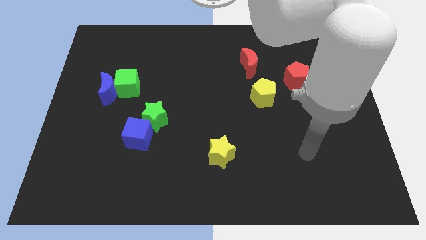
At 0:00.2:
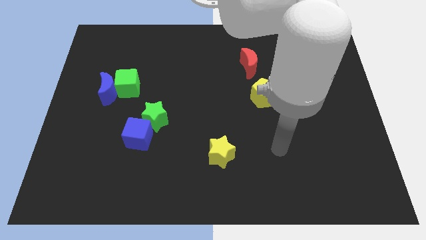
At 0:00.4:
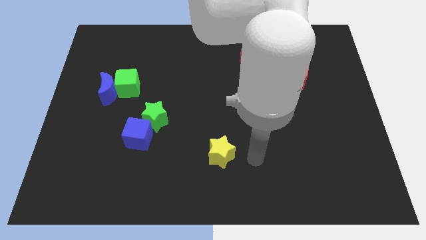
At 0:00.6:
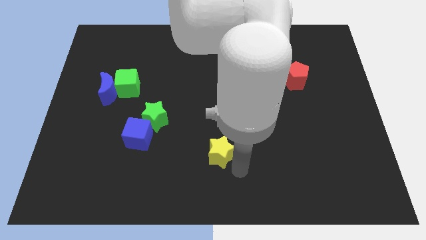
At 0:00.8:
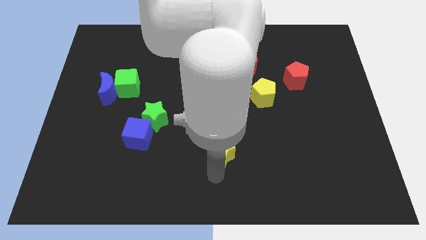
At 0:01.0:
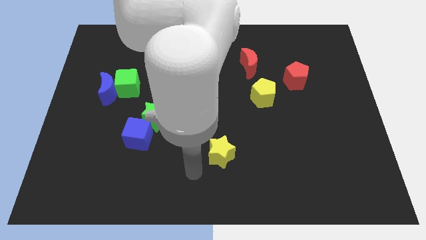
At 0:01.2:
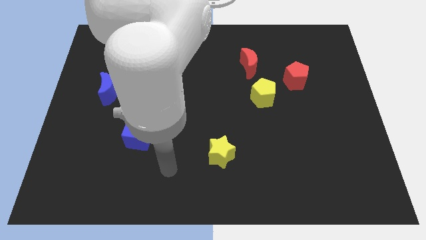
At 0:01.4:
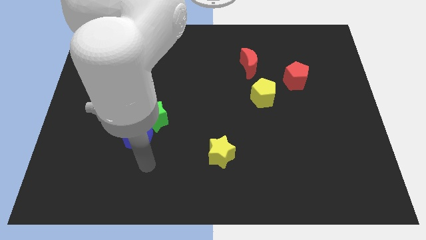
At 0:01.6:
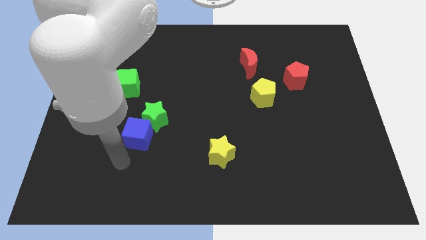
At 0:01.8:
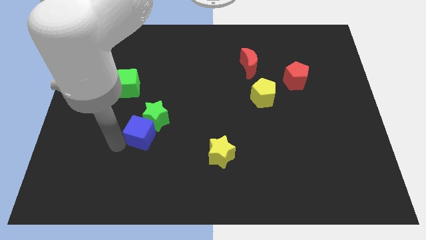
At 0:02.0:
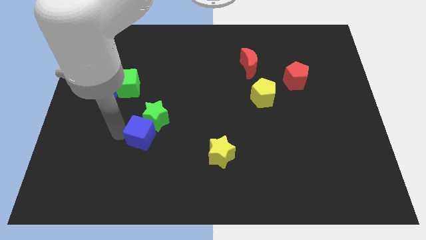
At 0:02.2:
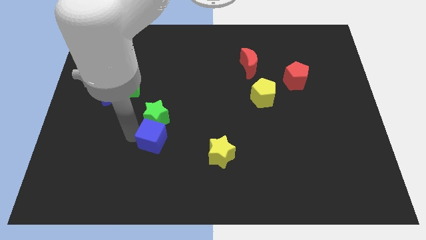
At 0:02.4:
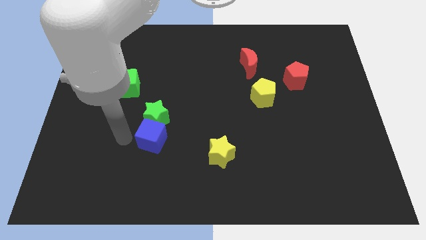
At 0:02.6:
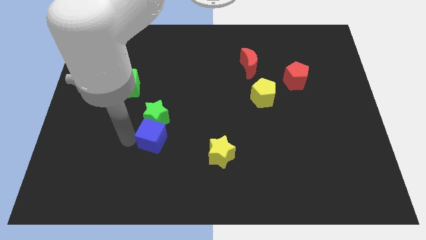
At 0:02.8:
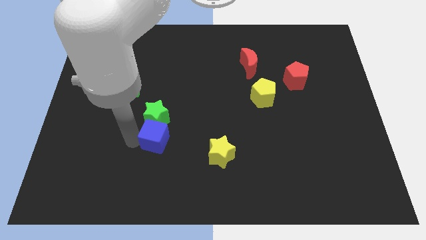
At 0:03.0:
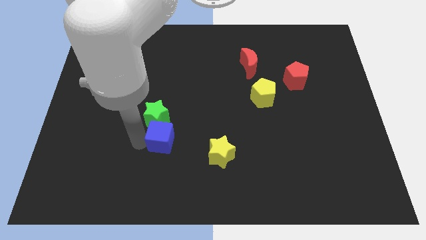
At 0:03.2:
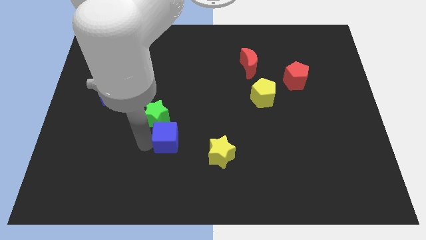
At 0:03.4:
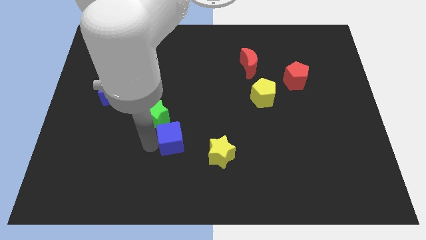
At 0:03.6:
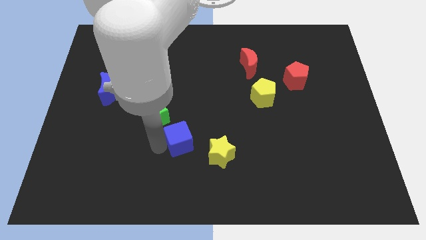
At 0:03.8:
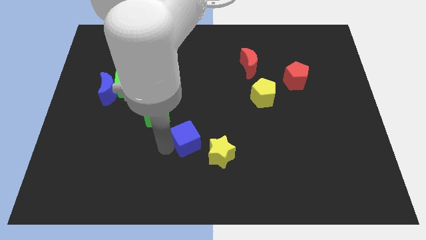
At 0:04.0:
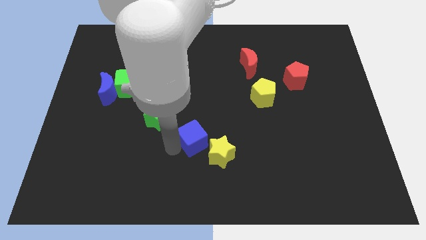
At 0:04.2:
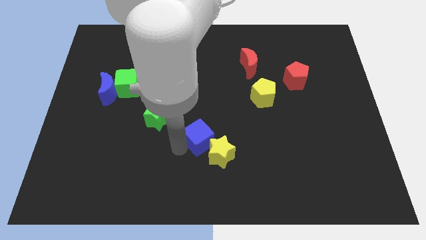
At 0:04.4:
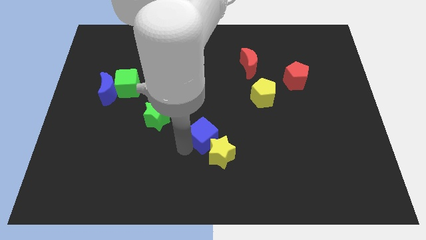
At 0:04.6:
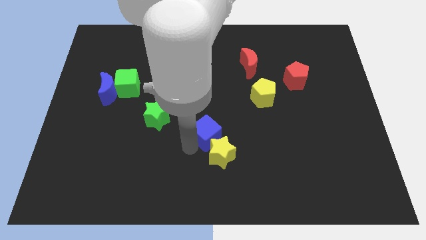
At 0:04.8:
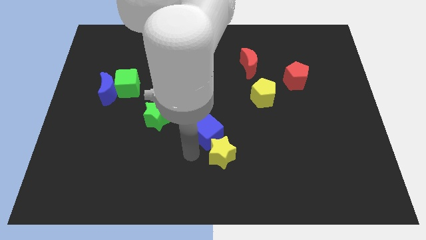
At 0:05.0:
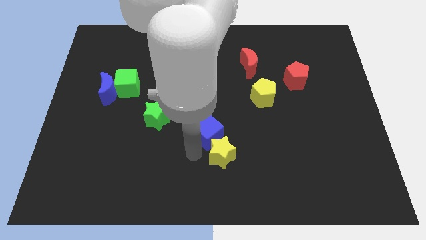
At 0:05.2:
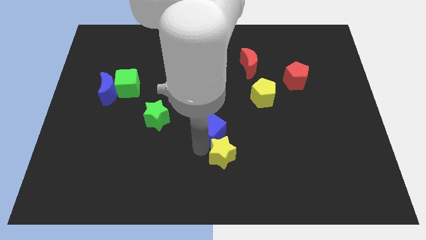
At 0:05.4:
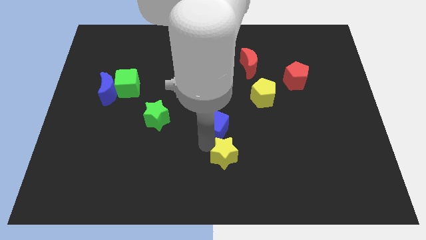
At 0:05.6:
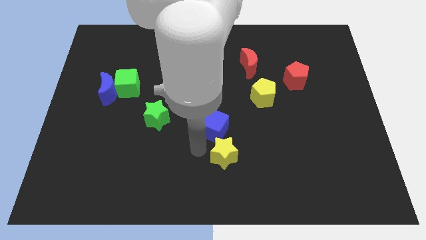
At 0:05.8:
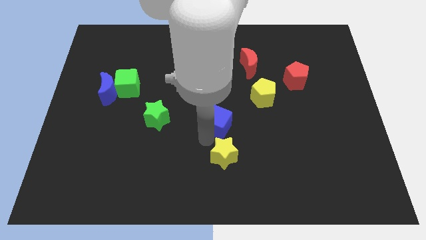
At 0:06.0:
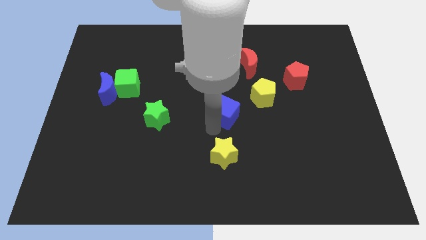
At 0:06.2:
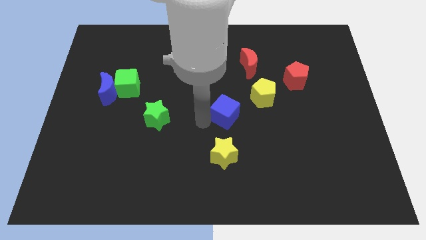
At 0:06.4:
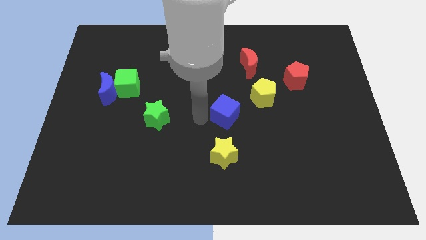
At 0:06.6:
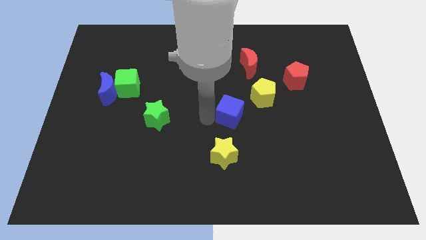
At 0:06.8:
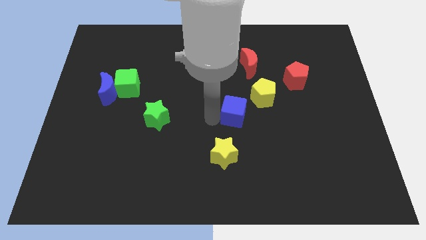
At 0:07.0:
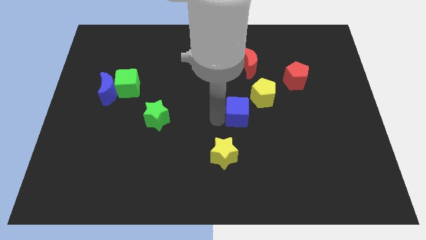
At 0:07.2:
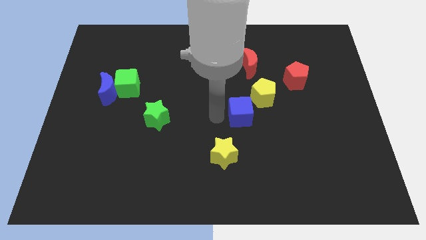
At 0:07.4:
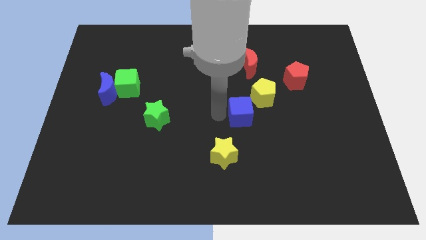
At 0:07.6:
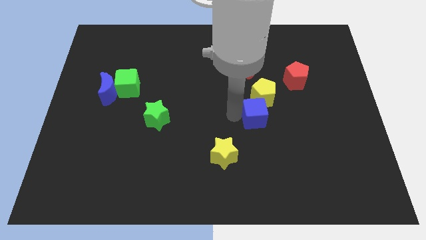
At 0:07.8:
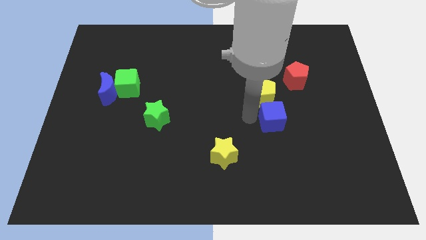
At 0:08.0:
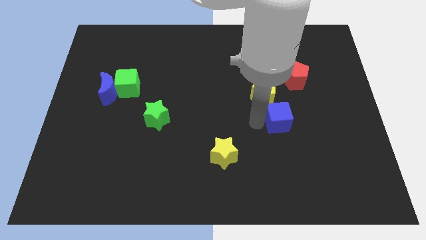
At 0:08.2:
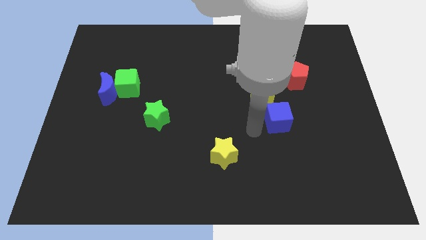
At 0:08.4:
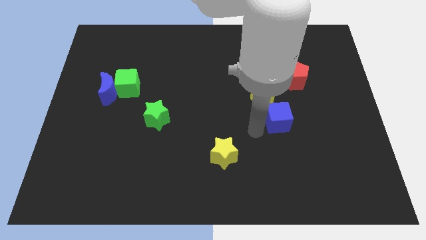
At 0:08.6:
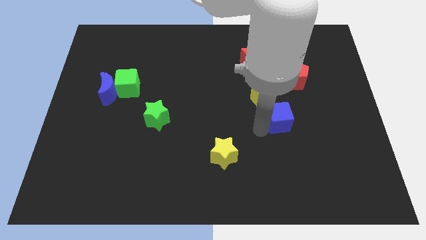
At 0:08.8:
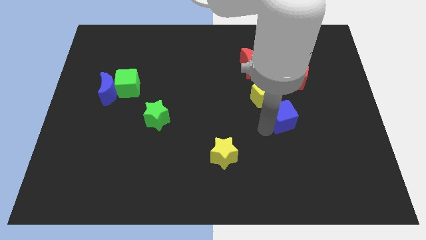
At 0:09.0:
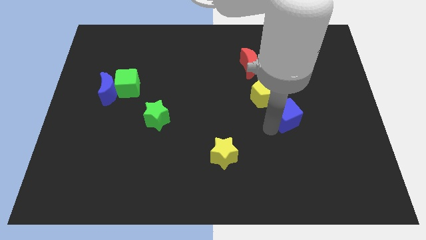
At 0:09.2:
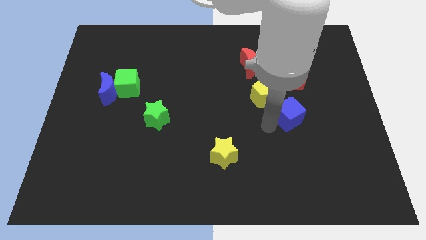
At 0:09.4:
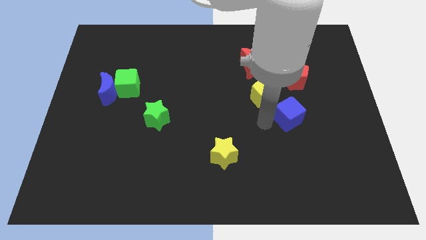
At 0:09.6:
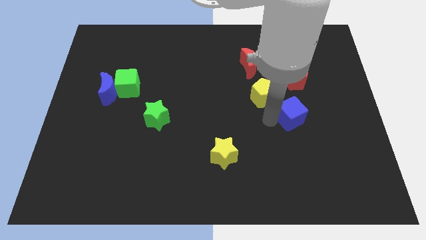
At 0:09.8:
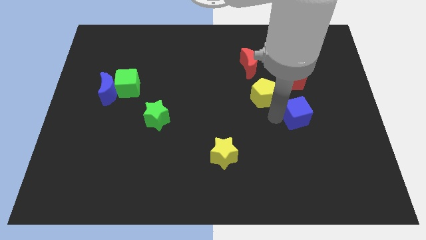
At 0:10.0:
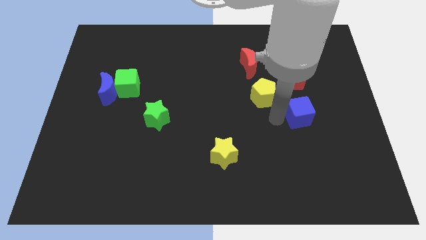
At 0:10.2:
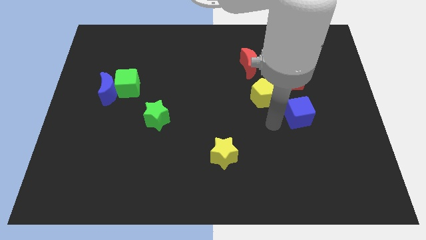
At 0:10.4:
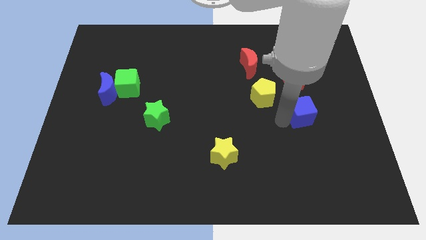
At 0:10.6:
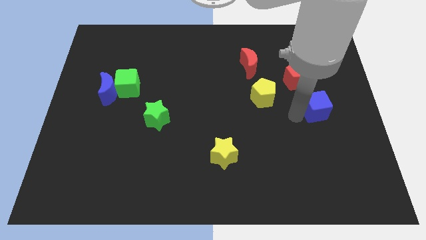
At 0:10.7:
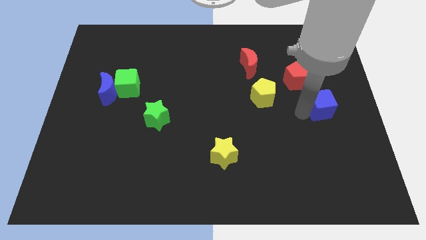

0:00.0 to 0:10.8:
push the blue cube to the center right

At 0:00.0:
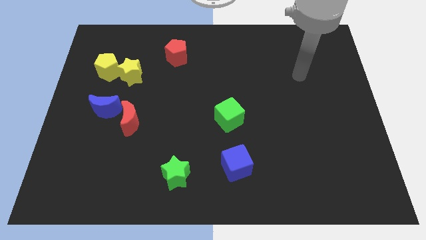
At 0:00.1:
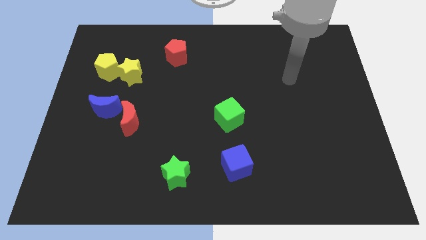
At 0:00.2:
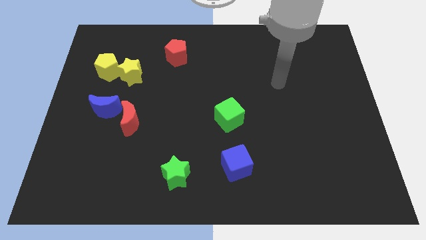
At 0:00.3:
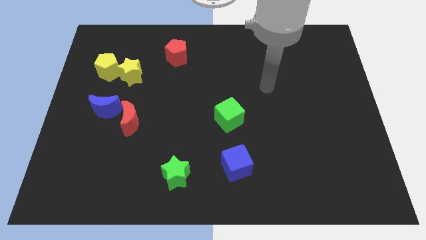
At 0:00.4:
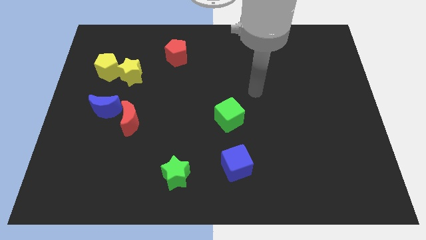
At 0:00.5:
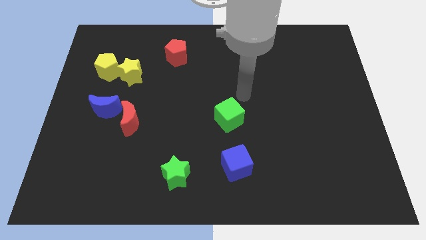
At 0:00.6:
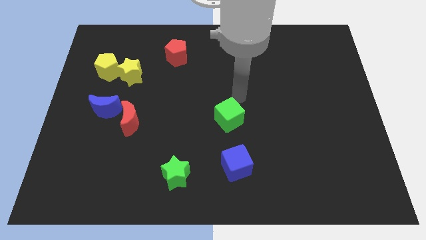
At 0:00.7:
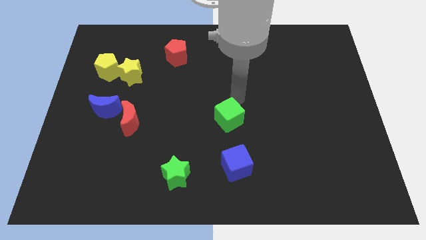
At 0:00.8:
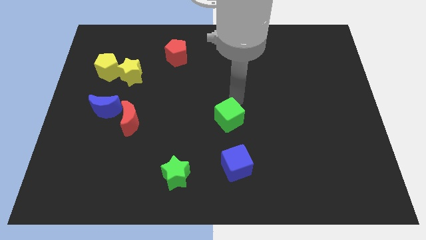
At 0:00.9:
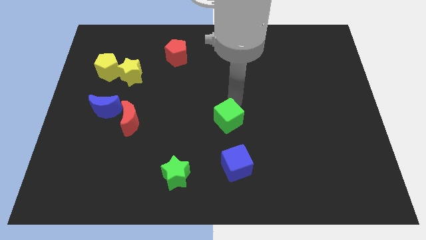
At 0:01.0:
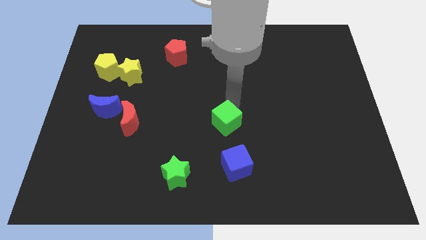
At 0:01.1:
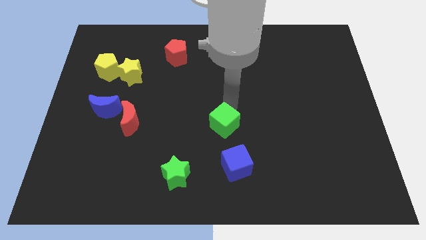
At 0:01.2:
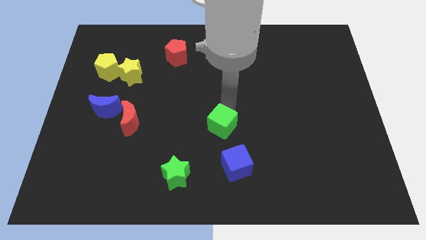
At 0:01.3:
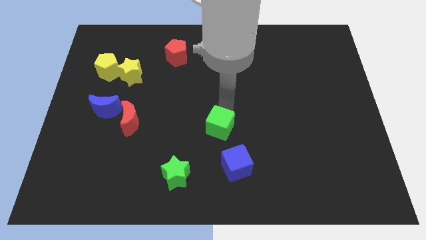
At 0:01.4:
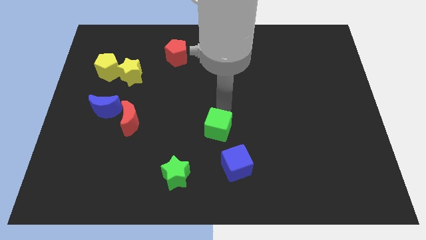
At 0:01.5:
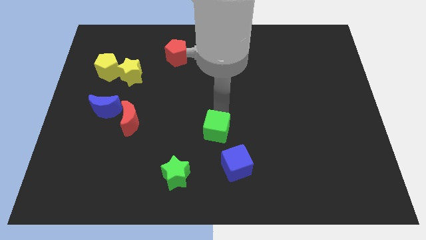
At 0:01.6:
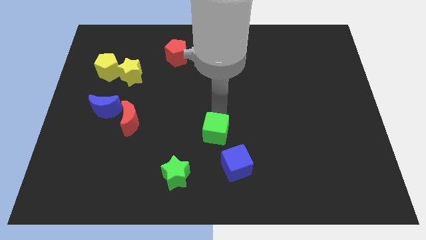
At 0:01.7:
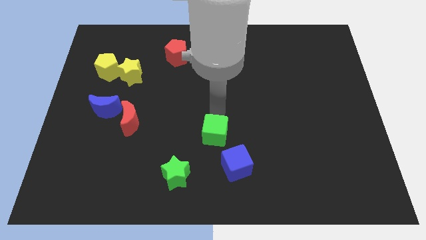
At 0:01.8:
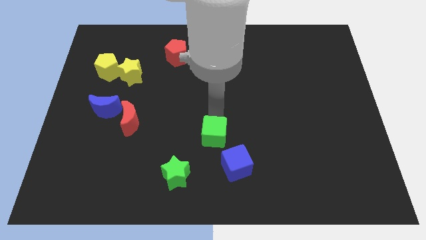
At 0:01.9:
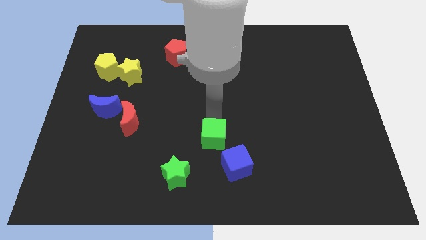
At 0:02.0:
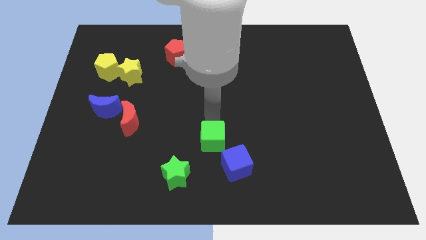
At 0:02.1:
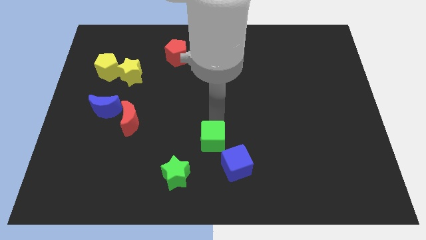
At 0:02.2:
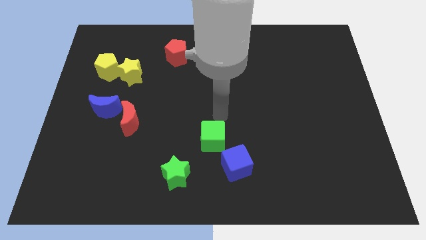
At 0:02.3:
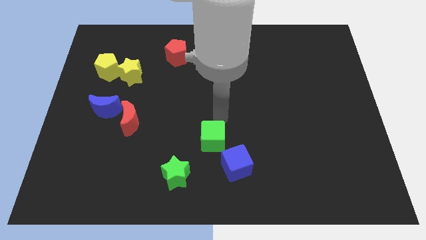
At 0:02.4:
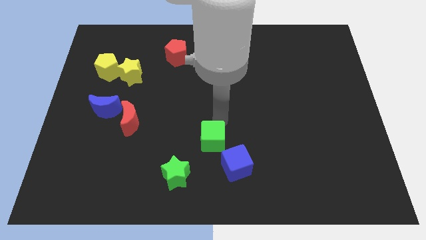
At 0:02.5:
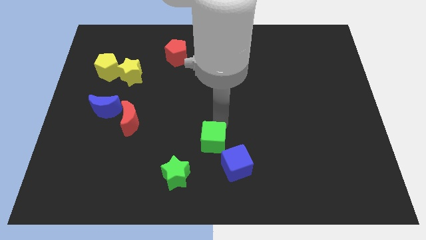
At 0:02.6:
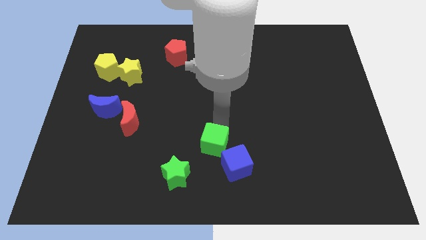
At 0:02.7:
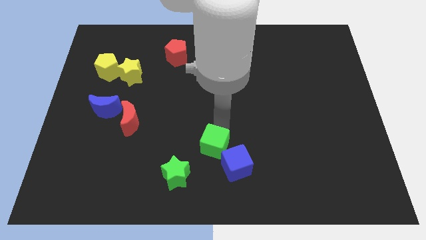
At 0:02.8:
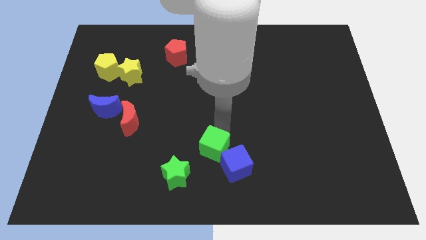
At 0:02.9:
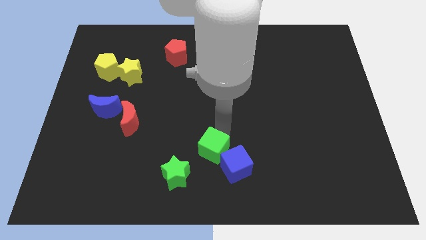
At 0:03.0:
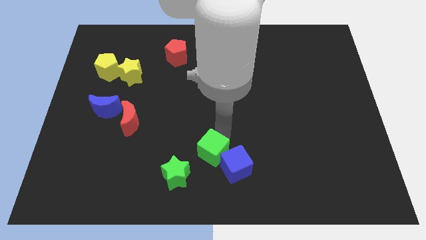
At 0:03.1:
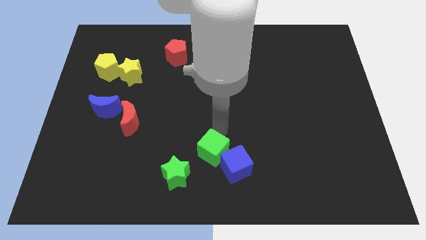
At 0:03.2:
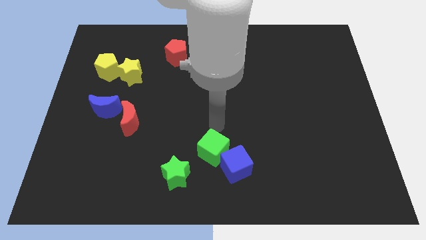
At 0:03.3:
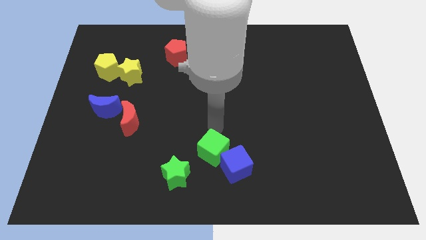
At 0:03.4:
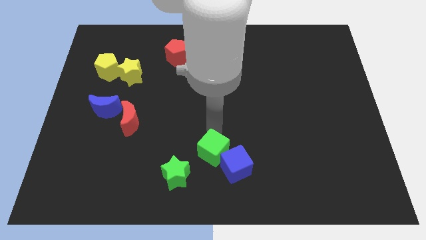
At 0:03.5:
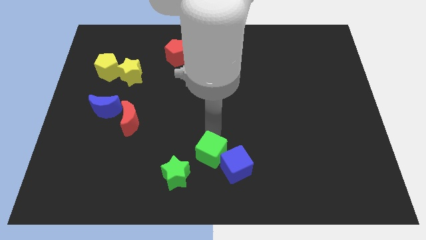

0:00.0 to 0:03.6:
slide the green cube to the bottom
